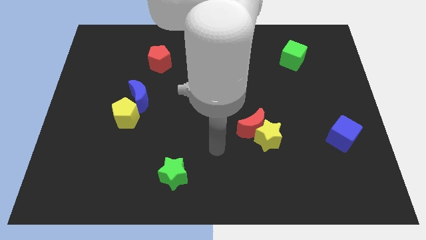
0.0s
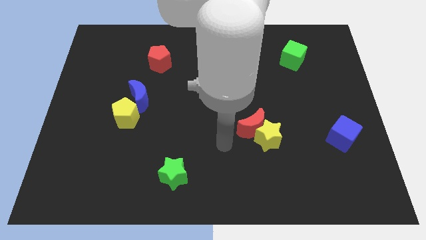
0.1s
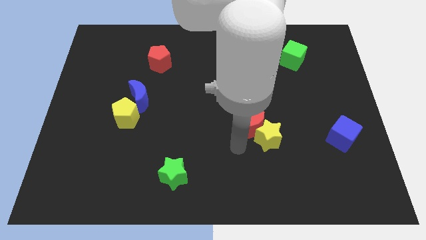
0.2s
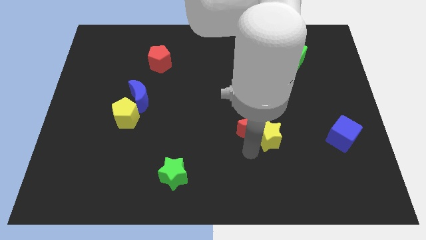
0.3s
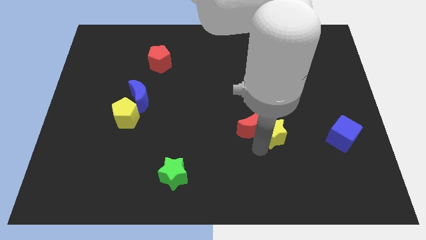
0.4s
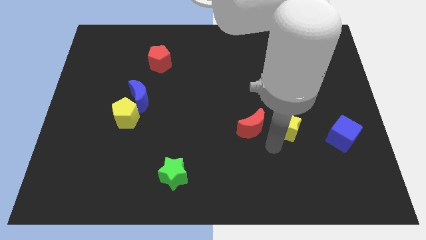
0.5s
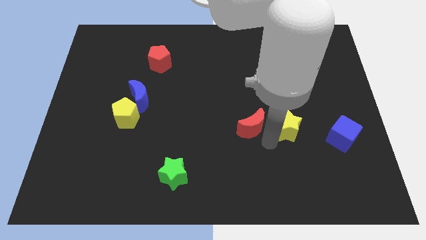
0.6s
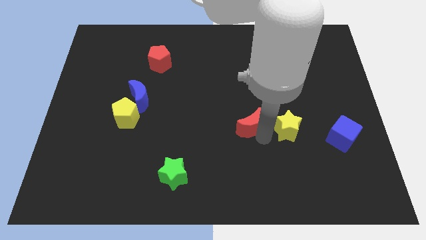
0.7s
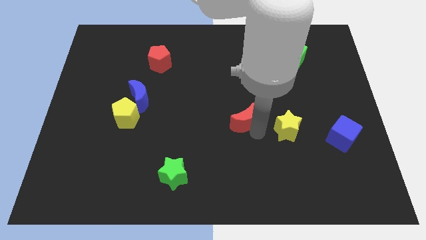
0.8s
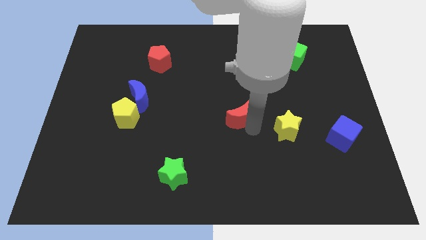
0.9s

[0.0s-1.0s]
move the red moon away from the yellow star

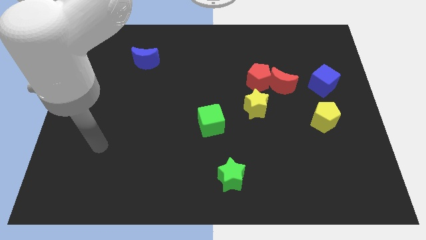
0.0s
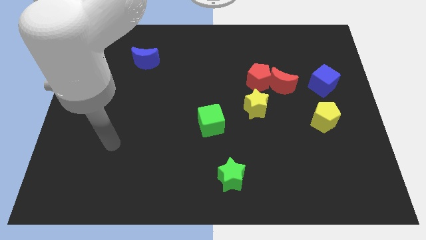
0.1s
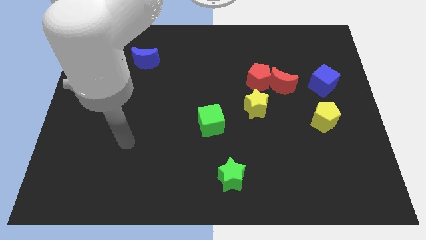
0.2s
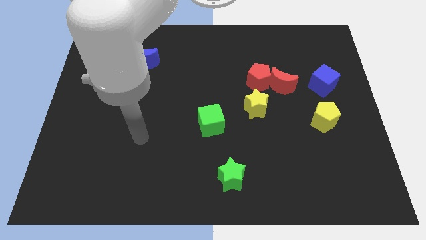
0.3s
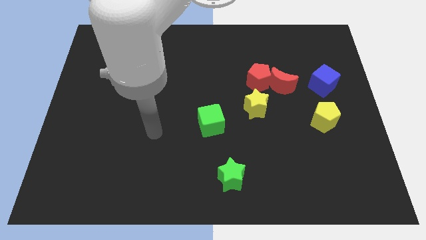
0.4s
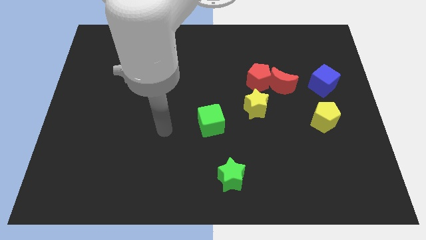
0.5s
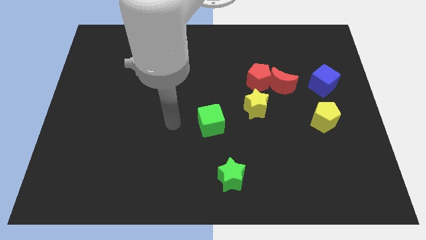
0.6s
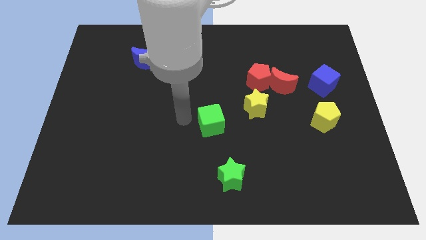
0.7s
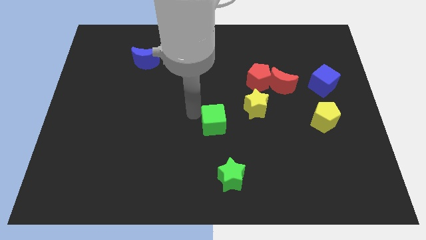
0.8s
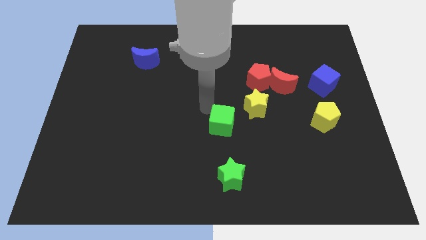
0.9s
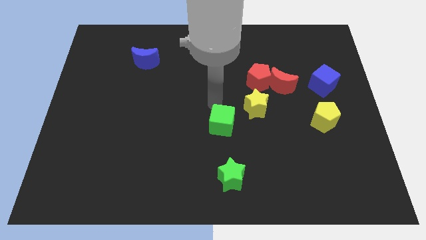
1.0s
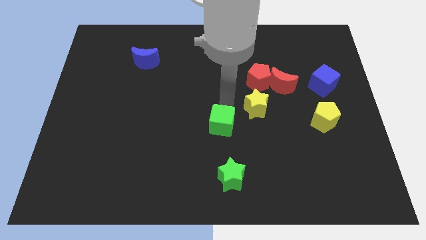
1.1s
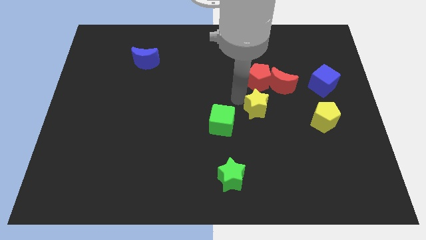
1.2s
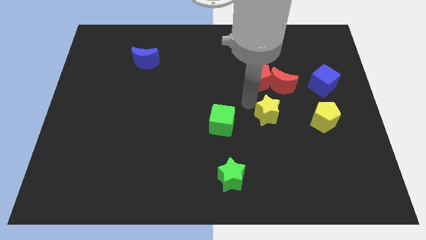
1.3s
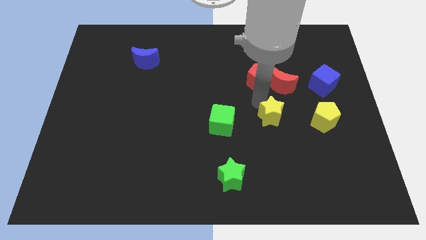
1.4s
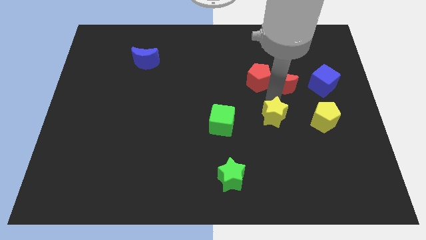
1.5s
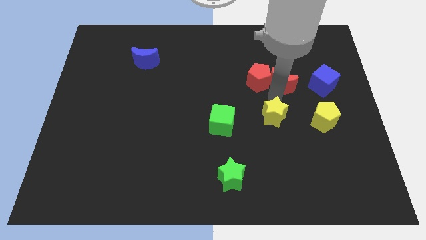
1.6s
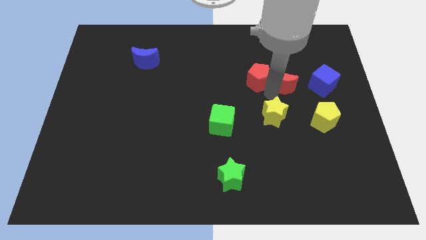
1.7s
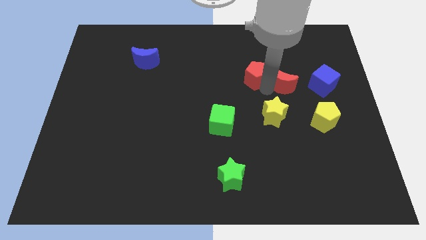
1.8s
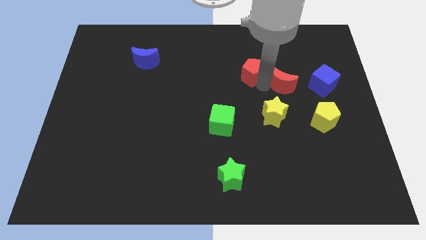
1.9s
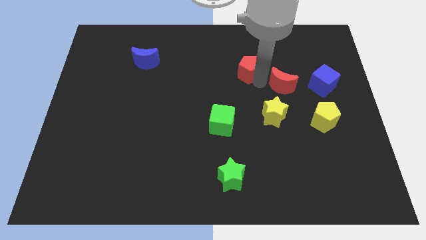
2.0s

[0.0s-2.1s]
separate the red pentagon from the red moon and yellow star

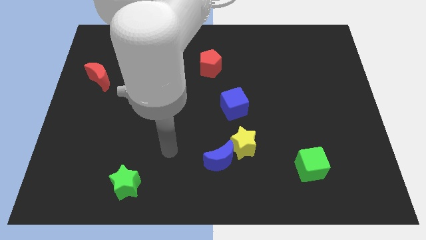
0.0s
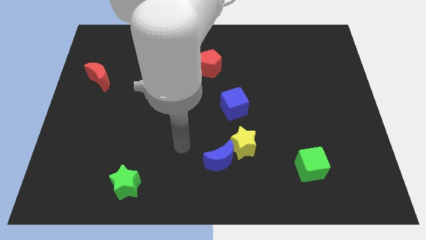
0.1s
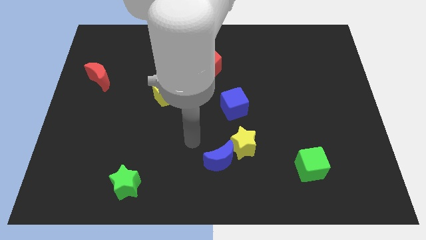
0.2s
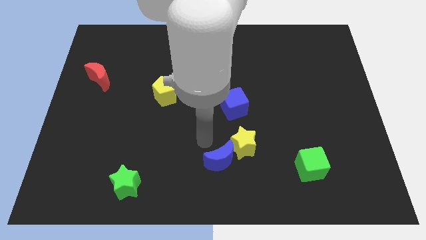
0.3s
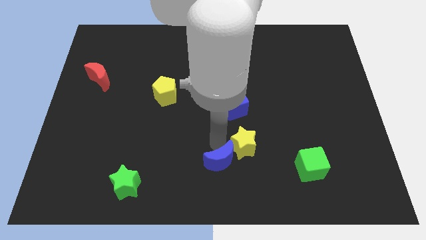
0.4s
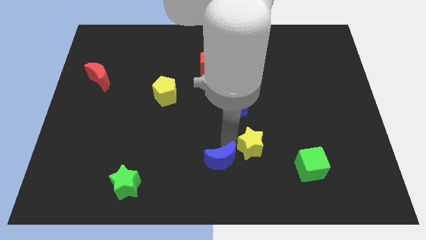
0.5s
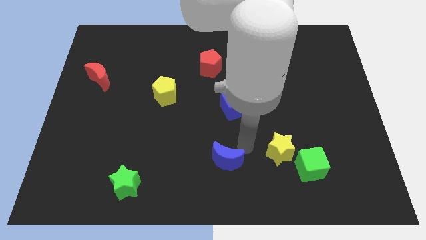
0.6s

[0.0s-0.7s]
pull the blue moon apart from the yellow star

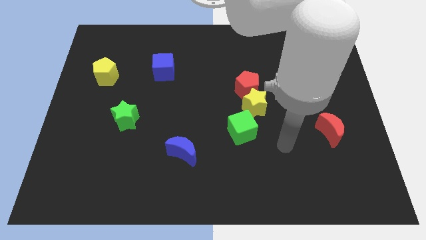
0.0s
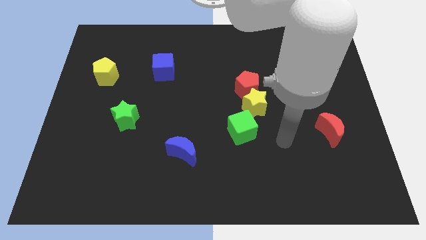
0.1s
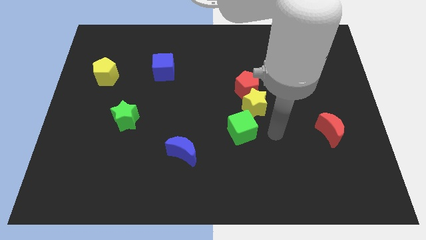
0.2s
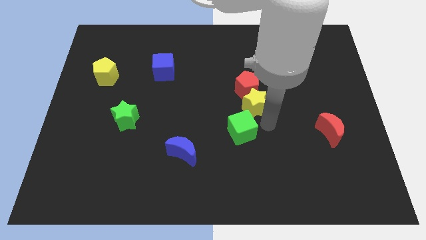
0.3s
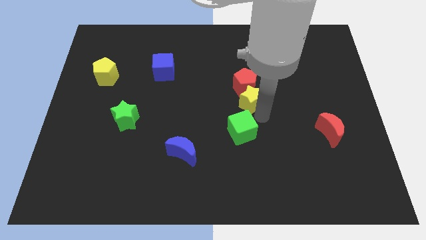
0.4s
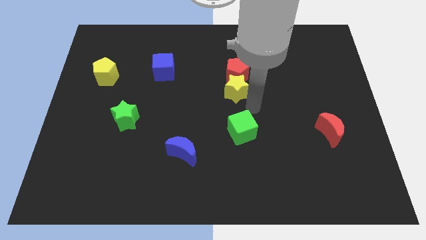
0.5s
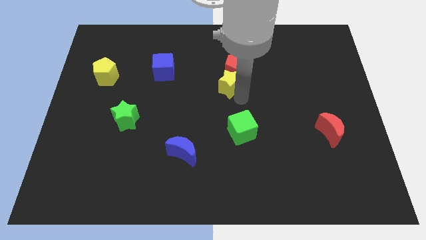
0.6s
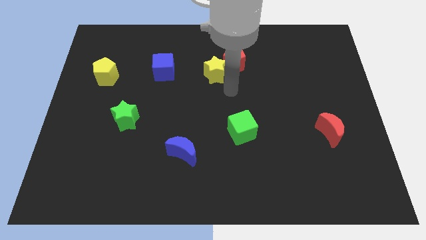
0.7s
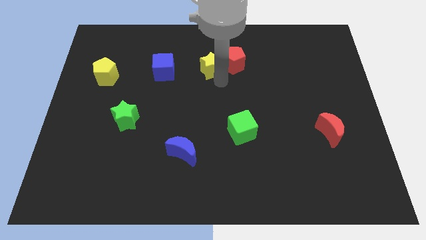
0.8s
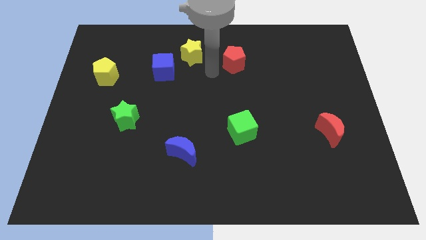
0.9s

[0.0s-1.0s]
move the red pentagon away from the yellow star

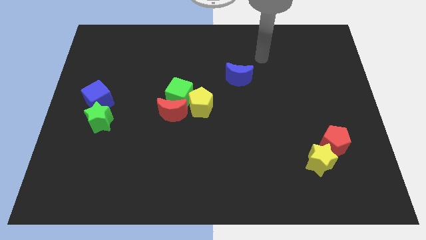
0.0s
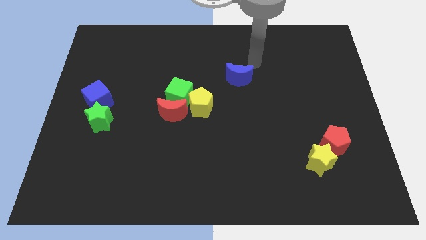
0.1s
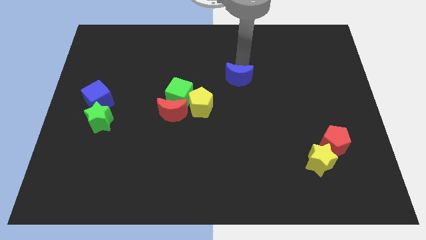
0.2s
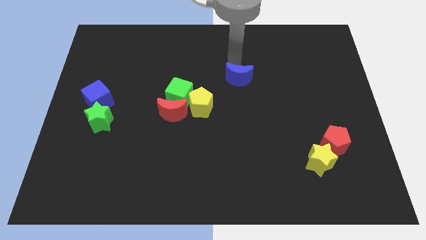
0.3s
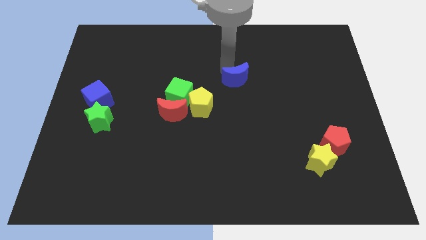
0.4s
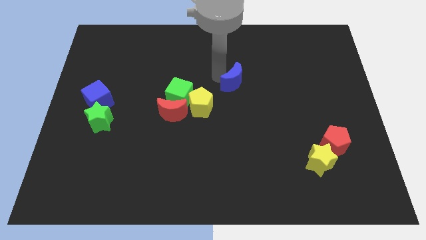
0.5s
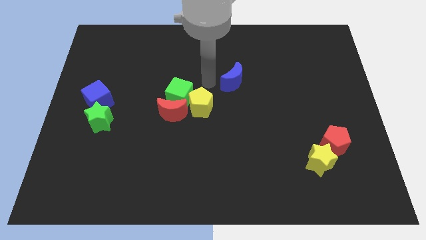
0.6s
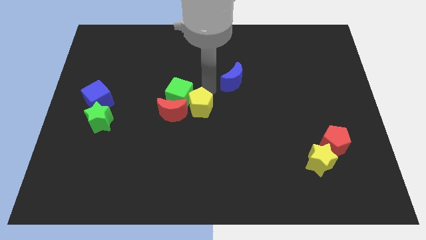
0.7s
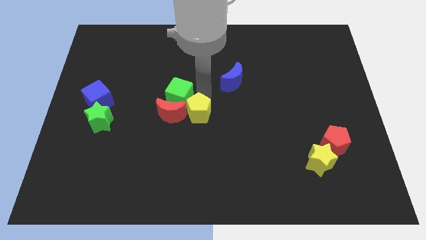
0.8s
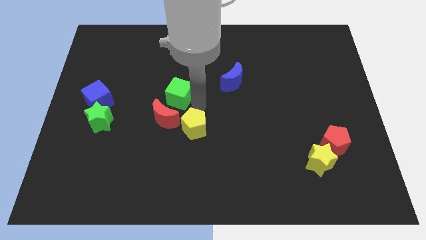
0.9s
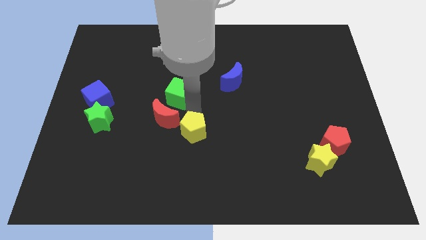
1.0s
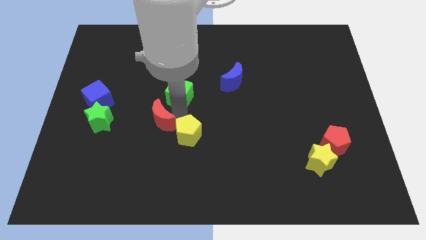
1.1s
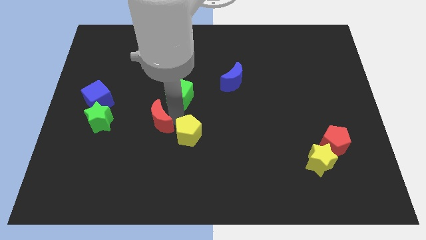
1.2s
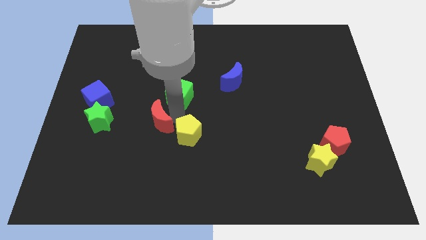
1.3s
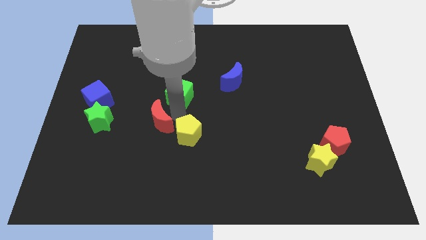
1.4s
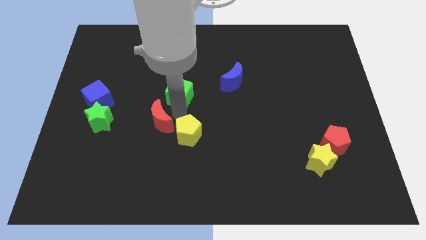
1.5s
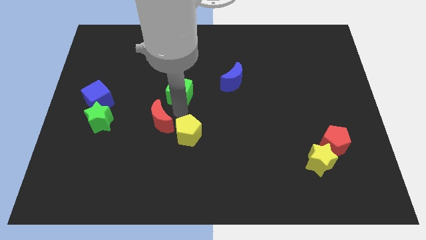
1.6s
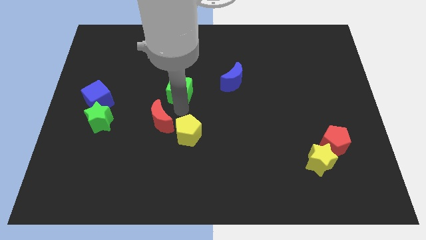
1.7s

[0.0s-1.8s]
move the green cube away from the red moon and yellow pentagon

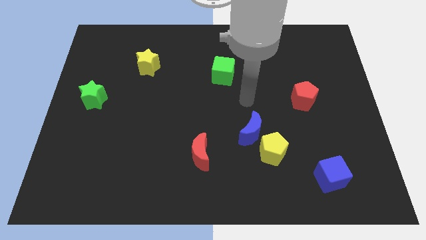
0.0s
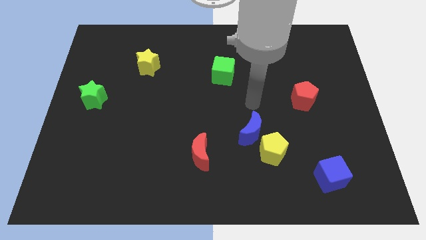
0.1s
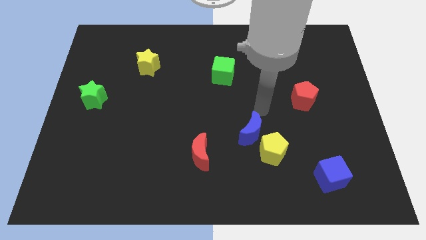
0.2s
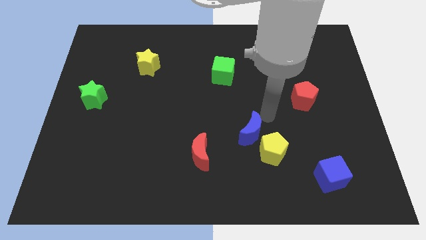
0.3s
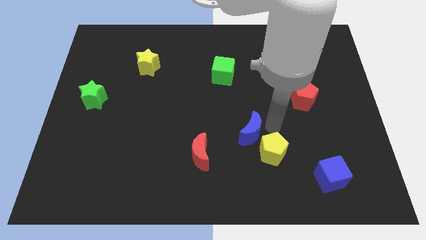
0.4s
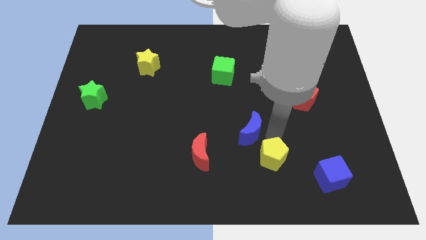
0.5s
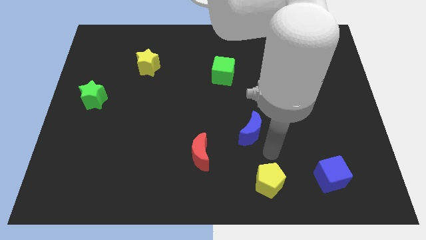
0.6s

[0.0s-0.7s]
pull the blue moon apart from the yellow pentagon

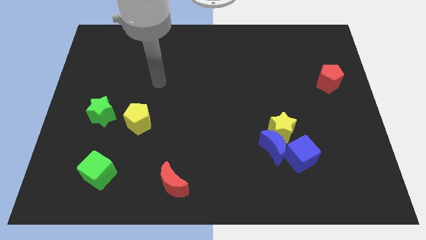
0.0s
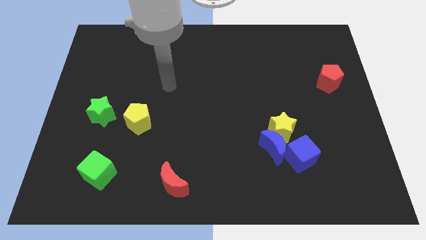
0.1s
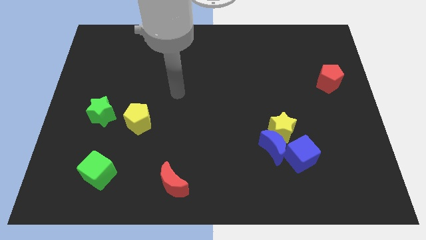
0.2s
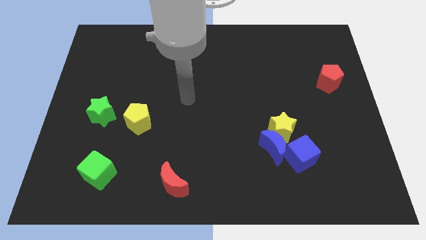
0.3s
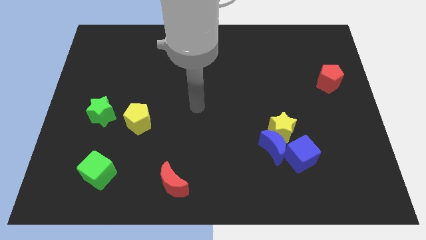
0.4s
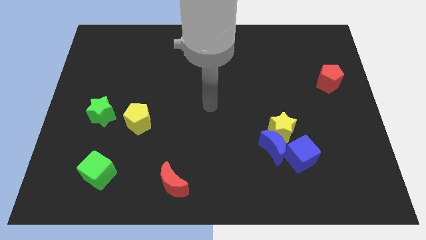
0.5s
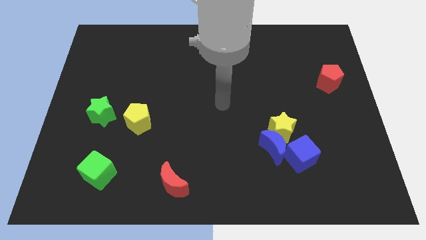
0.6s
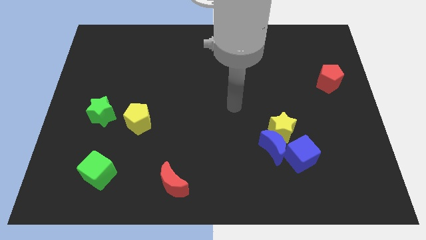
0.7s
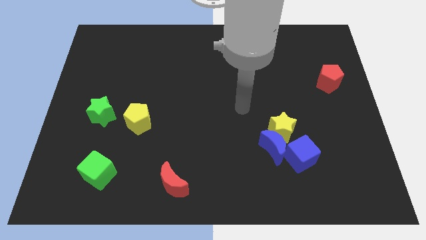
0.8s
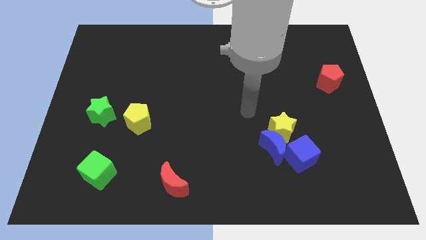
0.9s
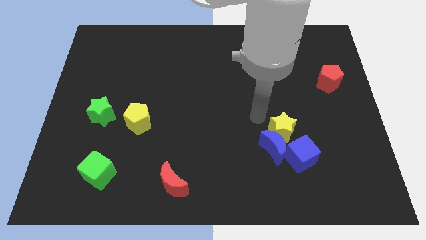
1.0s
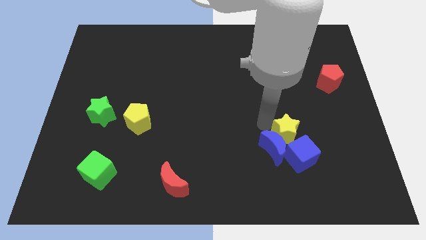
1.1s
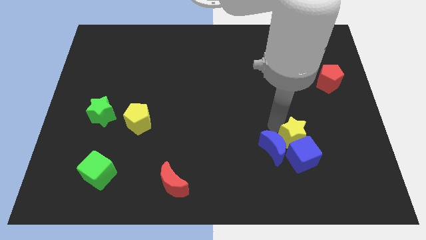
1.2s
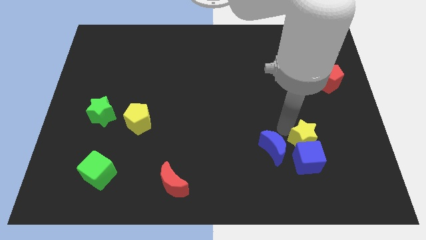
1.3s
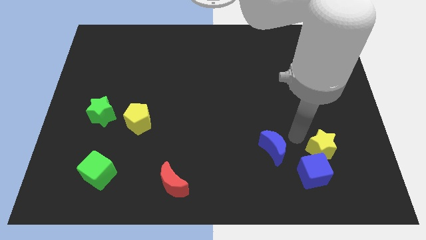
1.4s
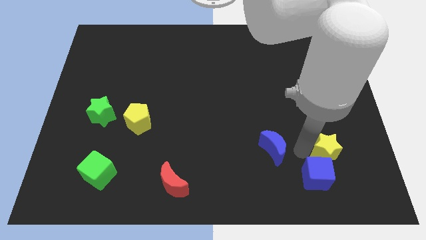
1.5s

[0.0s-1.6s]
separate the blue moon from the yellow star and blue cube

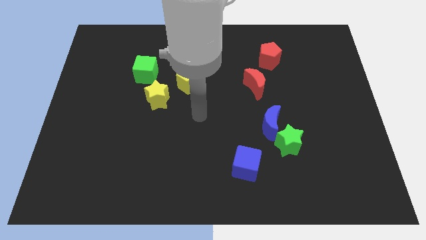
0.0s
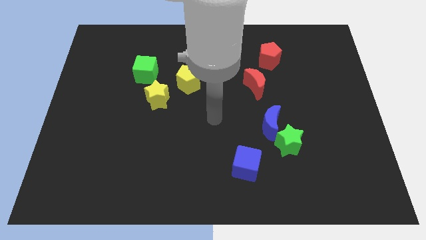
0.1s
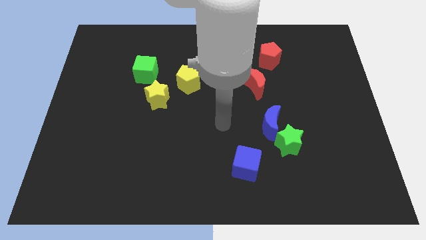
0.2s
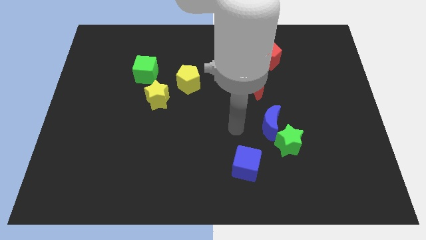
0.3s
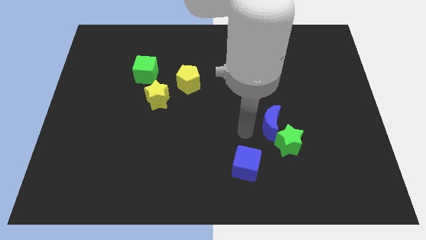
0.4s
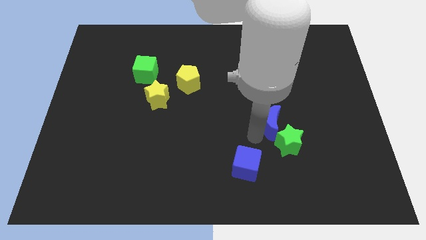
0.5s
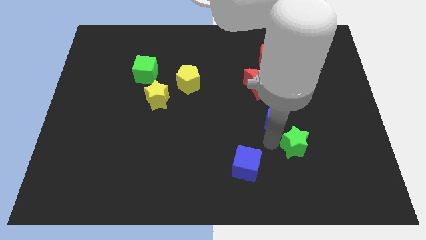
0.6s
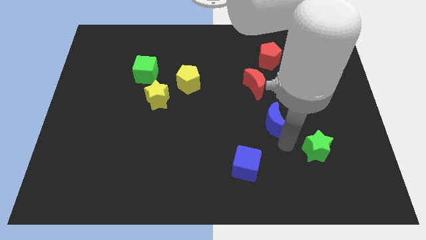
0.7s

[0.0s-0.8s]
move the blue moon away from the green star
